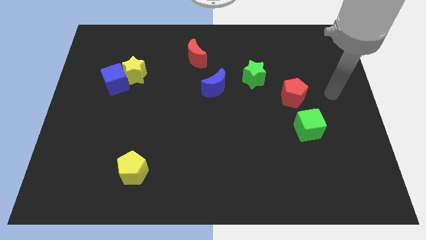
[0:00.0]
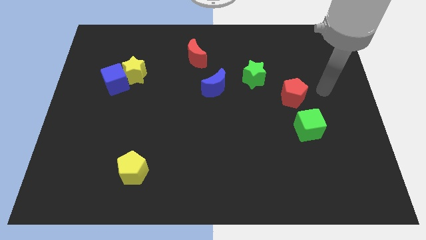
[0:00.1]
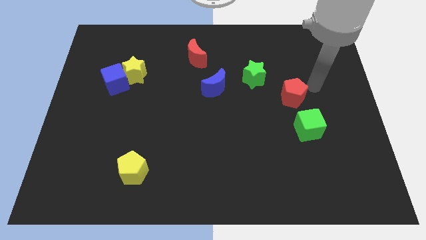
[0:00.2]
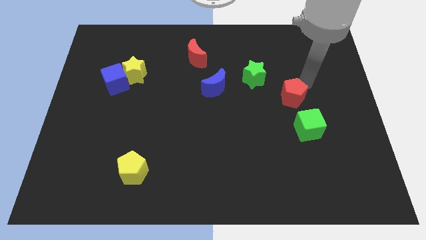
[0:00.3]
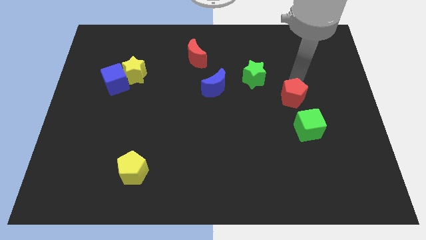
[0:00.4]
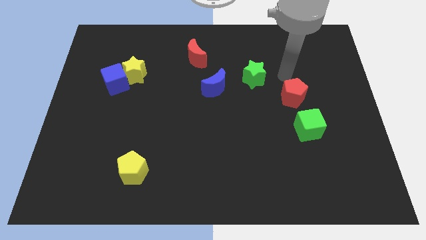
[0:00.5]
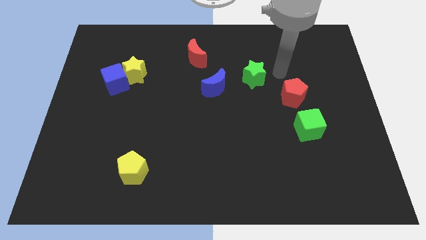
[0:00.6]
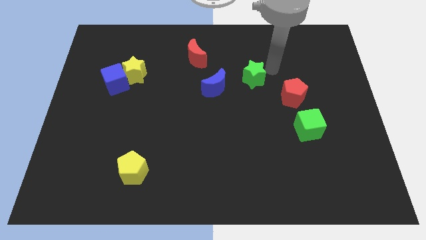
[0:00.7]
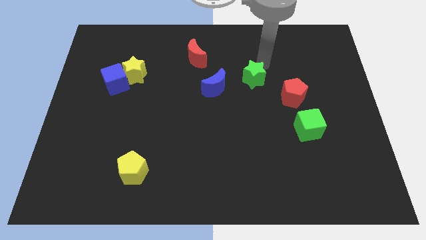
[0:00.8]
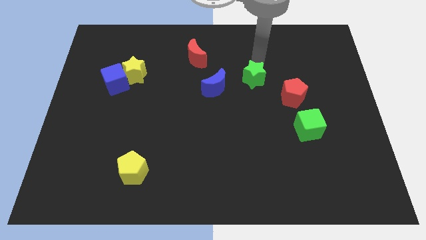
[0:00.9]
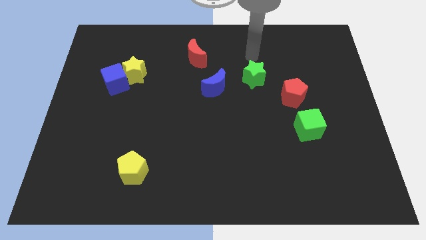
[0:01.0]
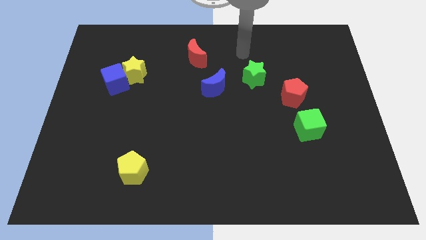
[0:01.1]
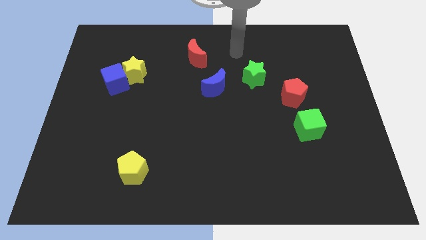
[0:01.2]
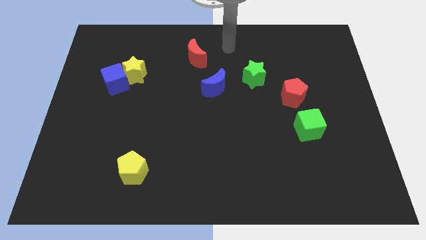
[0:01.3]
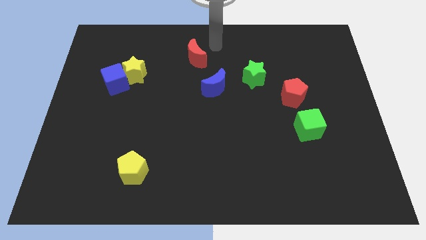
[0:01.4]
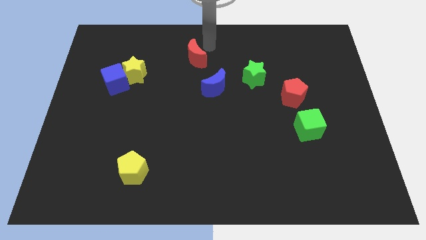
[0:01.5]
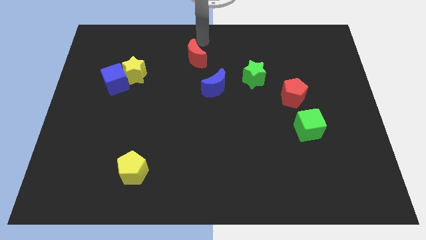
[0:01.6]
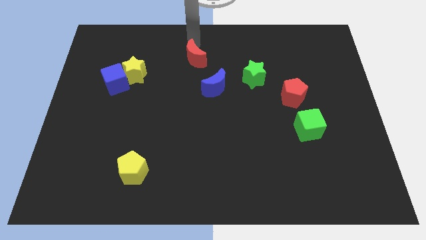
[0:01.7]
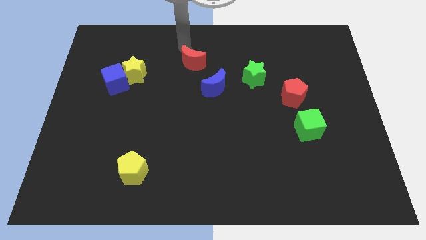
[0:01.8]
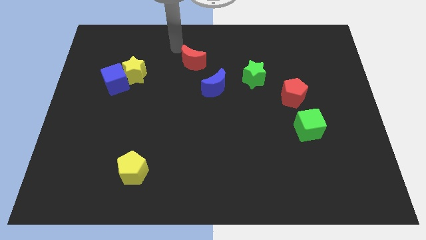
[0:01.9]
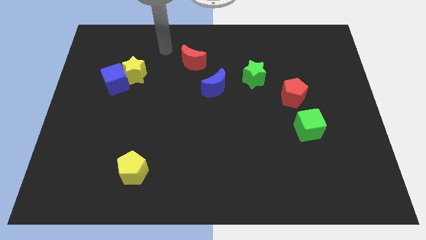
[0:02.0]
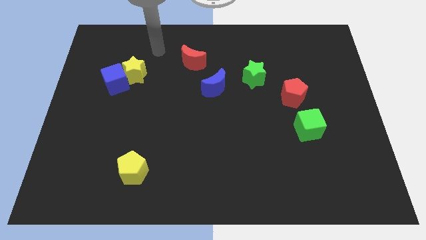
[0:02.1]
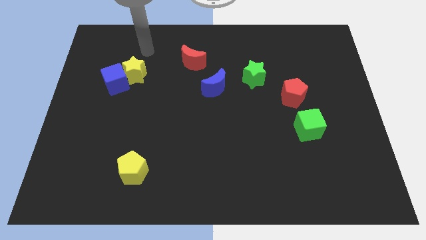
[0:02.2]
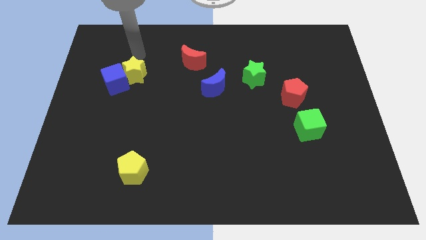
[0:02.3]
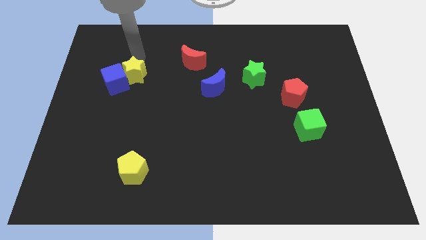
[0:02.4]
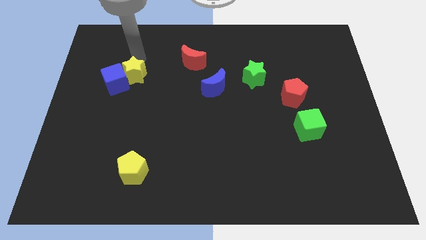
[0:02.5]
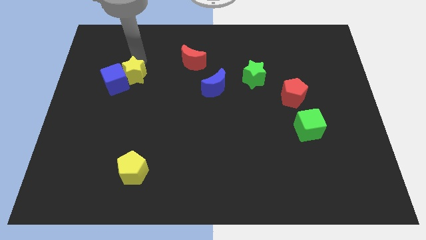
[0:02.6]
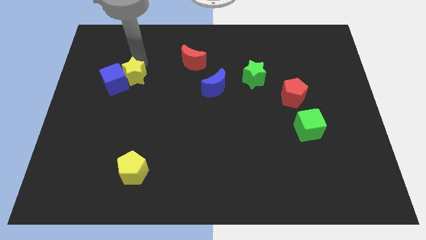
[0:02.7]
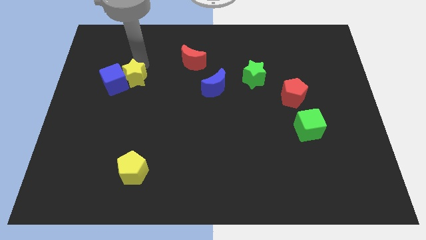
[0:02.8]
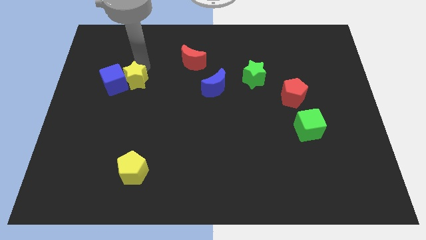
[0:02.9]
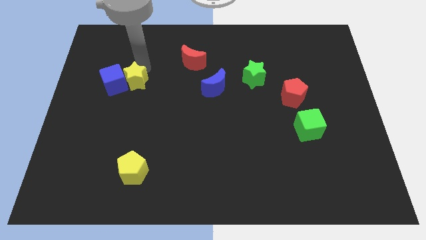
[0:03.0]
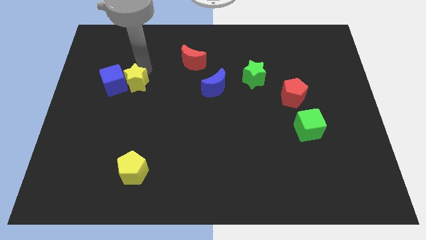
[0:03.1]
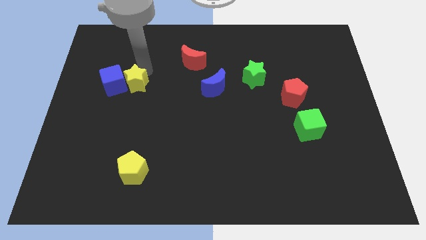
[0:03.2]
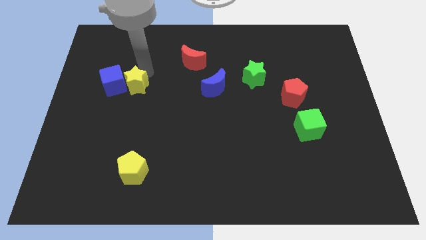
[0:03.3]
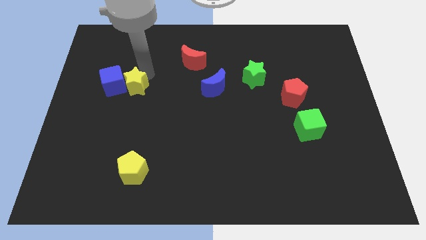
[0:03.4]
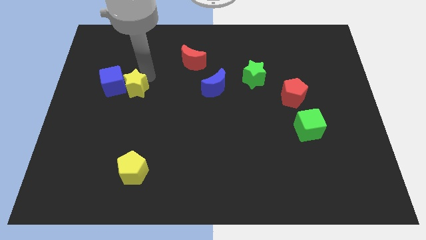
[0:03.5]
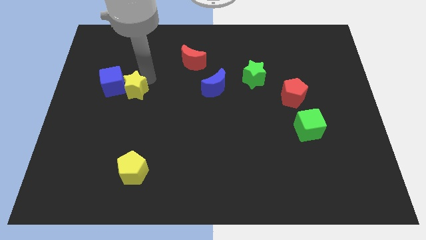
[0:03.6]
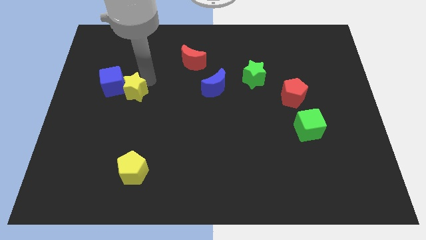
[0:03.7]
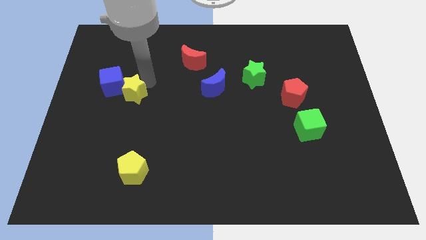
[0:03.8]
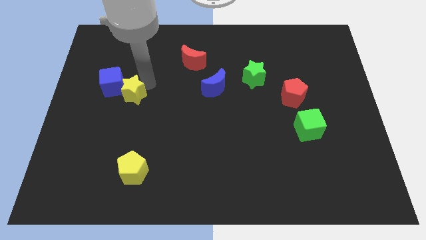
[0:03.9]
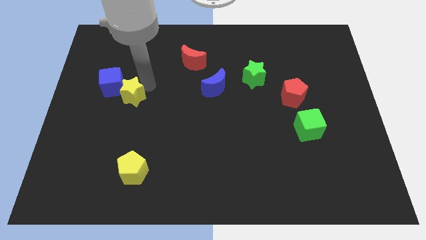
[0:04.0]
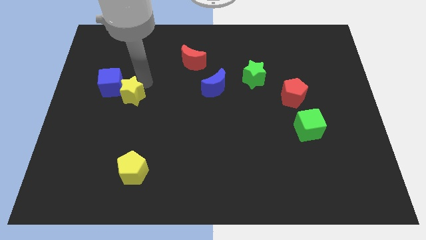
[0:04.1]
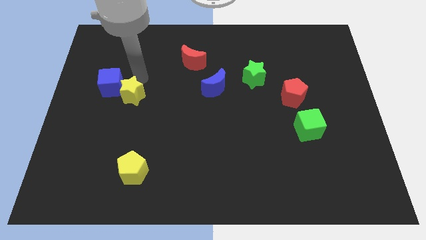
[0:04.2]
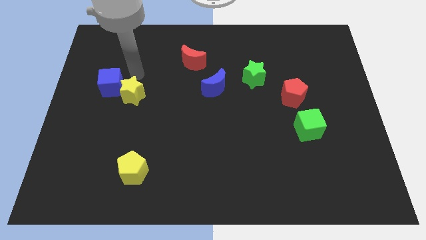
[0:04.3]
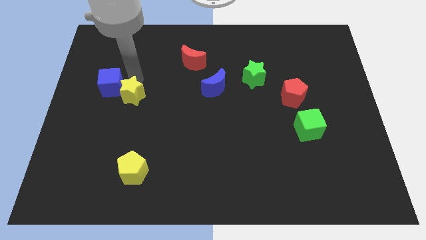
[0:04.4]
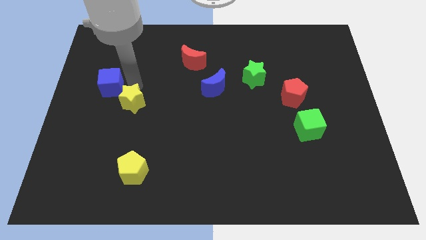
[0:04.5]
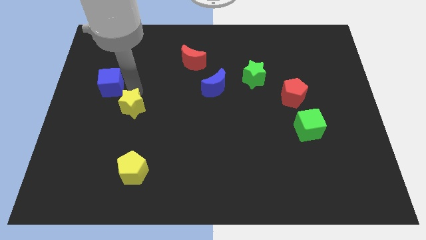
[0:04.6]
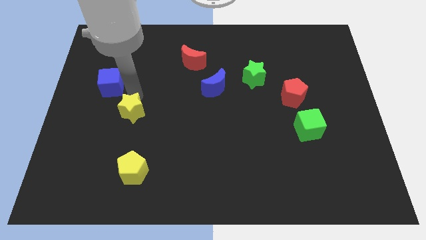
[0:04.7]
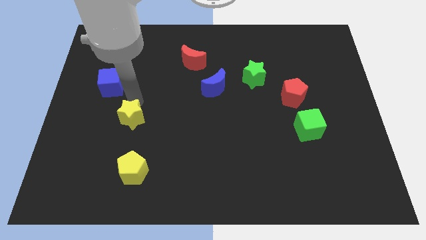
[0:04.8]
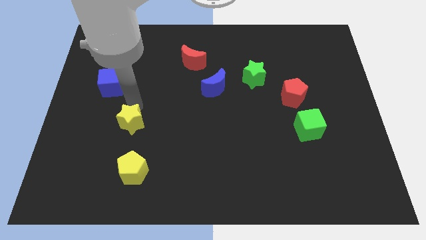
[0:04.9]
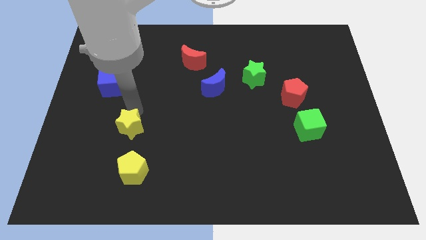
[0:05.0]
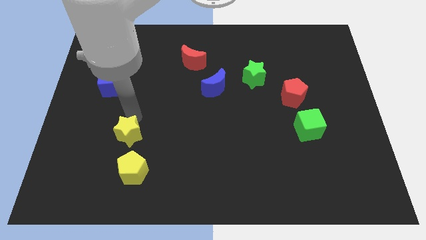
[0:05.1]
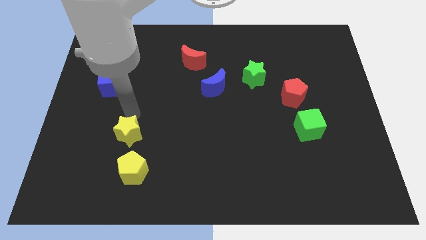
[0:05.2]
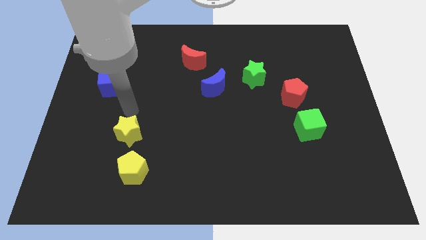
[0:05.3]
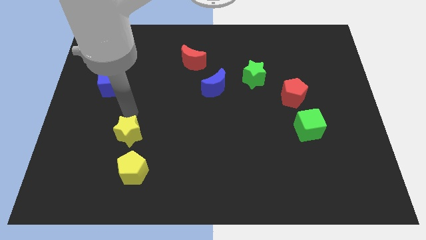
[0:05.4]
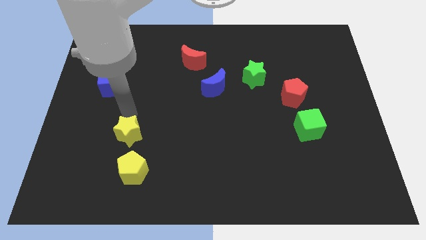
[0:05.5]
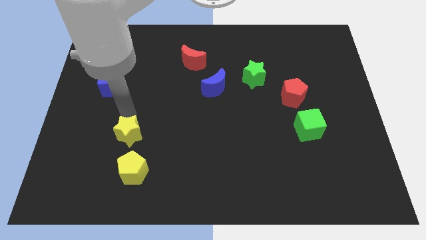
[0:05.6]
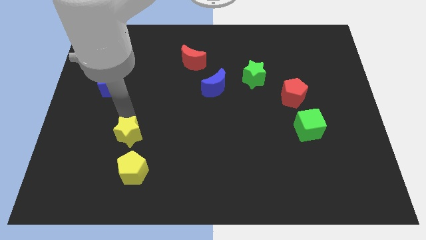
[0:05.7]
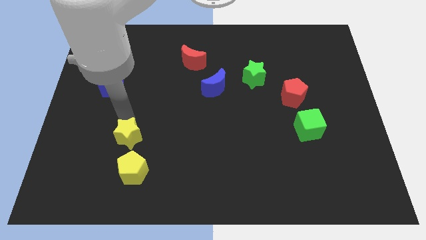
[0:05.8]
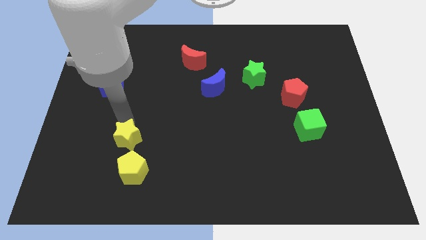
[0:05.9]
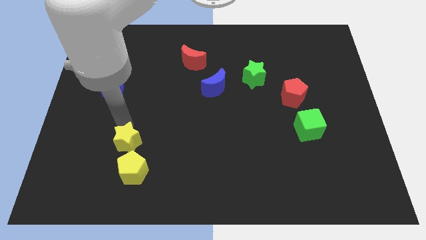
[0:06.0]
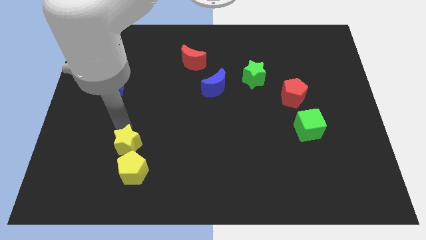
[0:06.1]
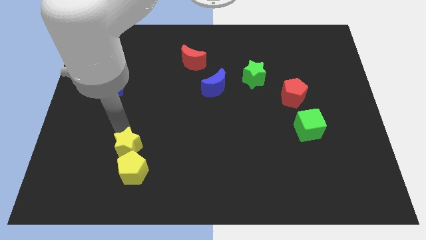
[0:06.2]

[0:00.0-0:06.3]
move the yellow star next to the yellow pentagon
